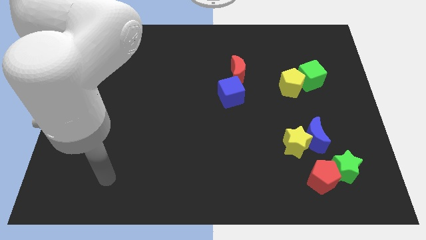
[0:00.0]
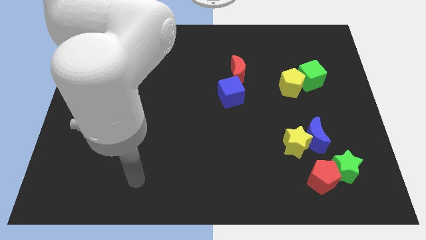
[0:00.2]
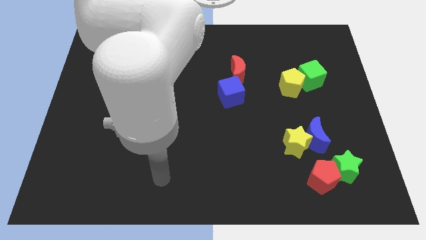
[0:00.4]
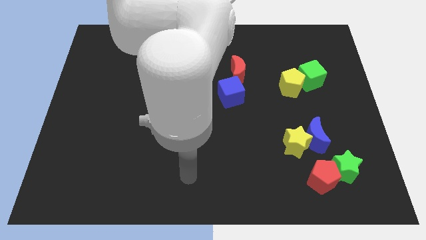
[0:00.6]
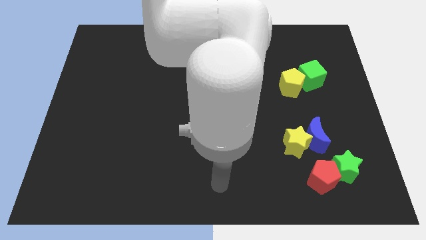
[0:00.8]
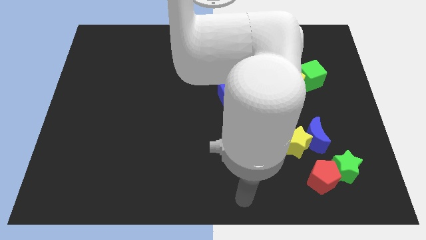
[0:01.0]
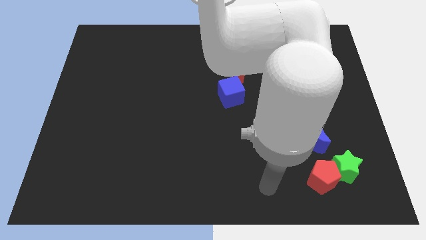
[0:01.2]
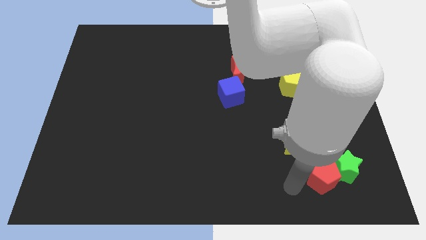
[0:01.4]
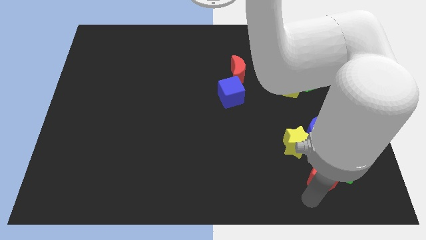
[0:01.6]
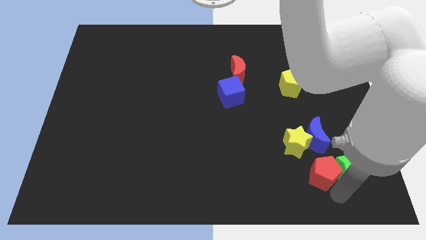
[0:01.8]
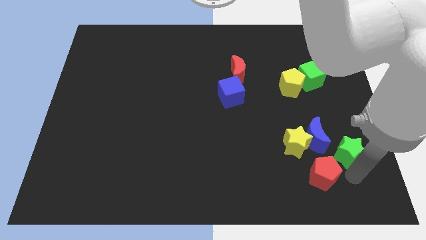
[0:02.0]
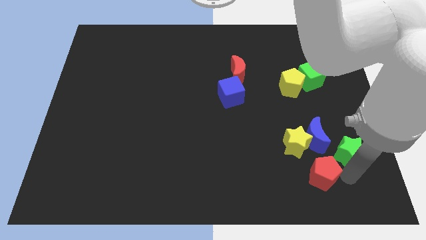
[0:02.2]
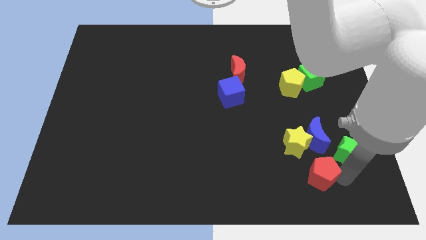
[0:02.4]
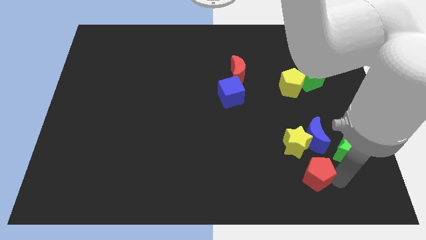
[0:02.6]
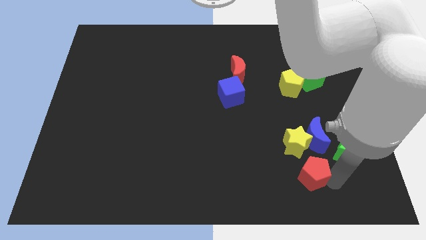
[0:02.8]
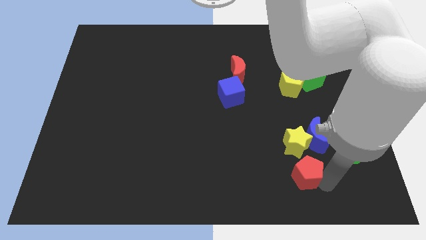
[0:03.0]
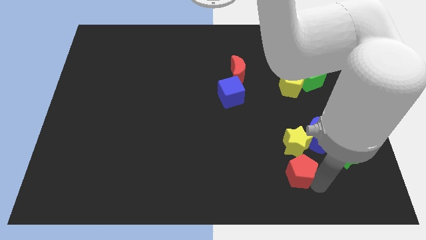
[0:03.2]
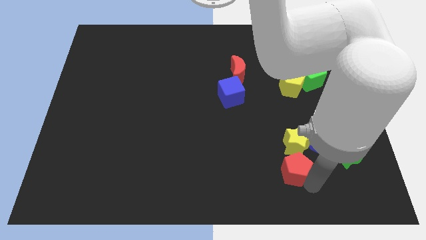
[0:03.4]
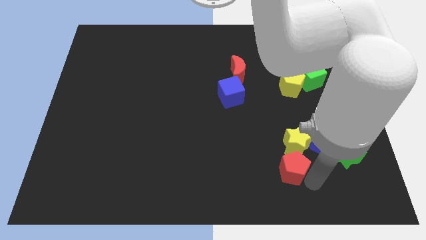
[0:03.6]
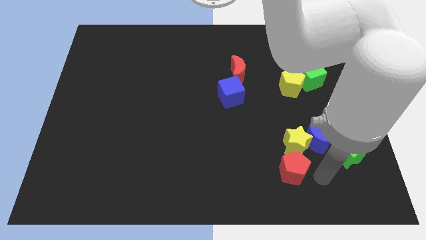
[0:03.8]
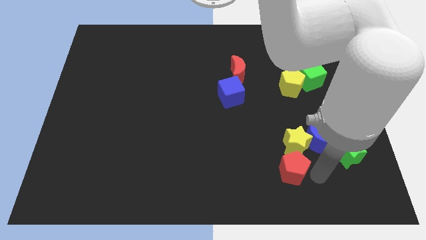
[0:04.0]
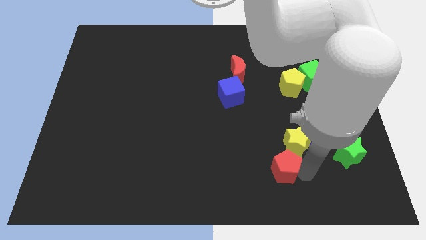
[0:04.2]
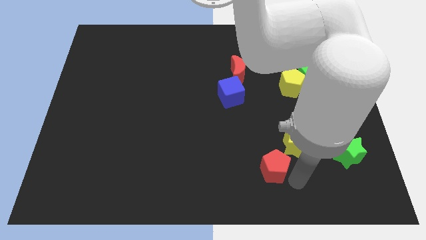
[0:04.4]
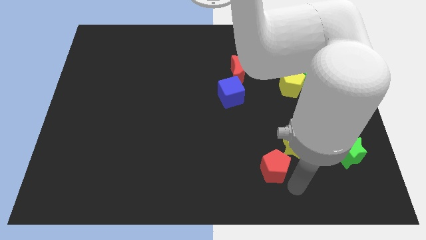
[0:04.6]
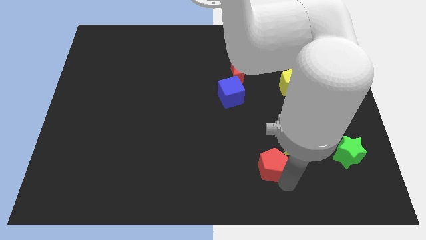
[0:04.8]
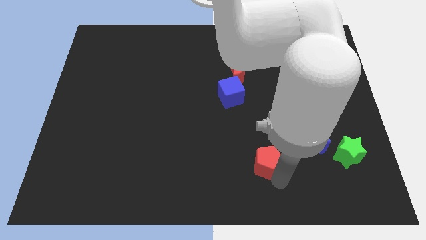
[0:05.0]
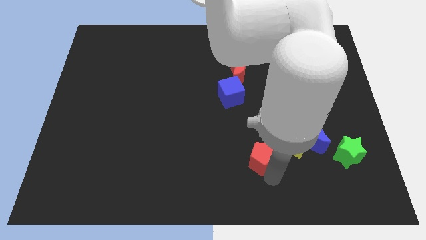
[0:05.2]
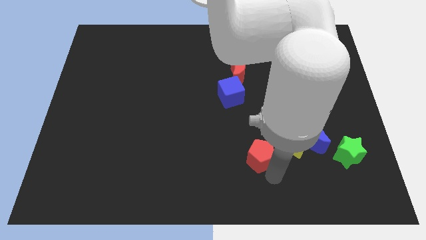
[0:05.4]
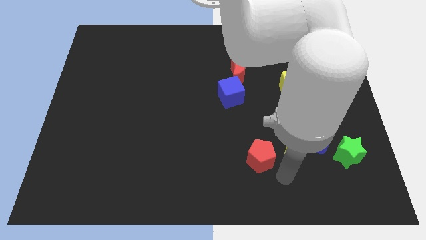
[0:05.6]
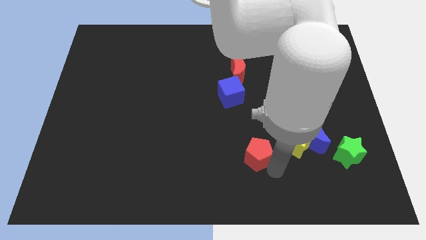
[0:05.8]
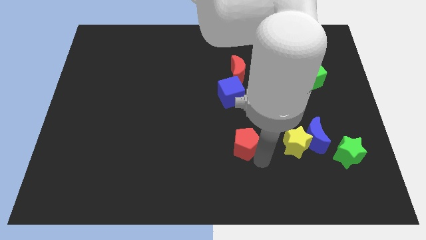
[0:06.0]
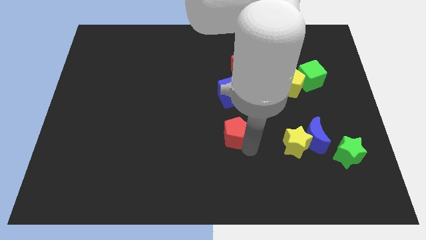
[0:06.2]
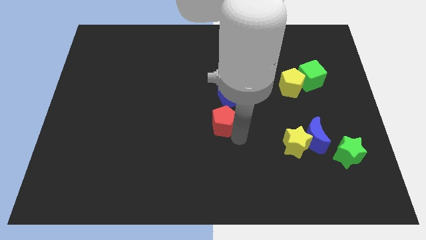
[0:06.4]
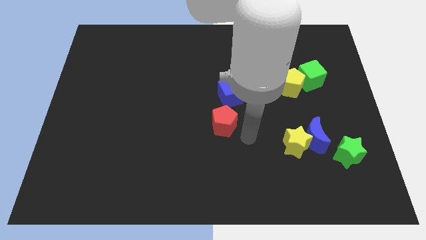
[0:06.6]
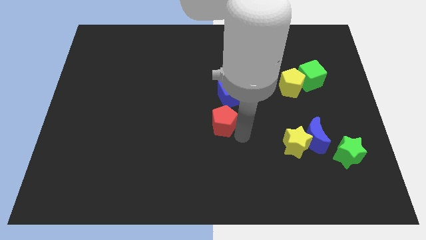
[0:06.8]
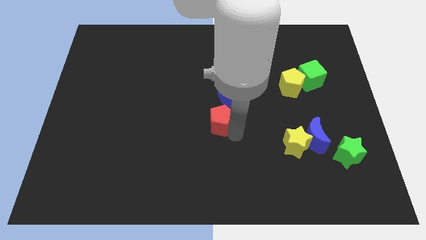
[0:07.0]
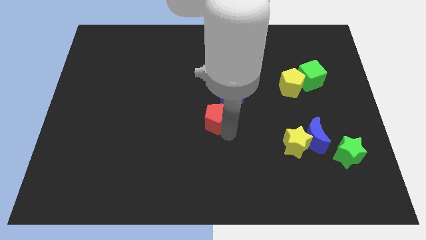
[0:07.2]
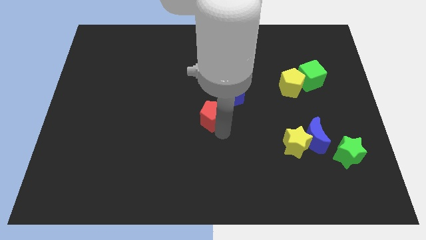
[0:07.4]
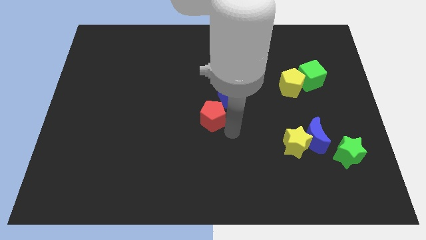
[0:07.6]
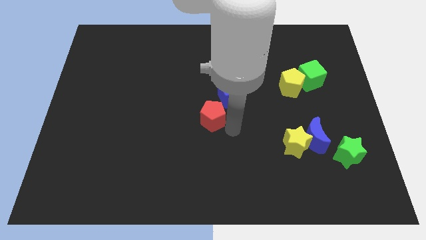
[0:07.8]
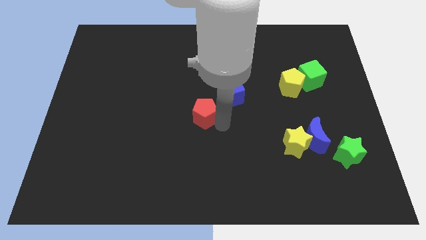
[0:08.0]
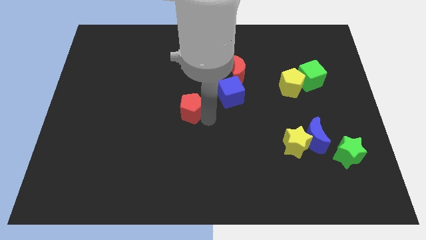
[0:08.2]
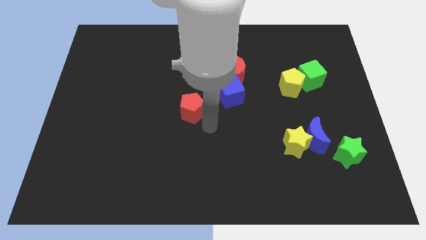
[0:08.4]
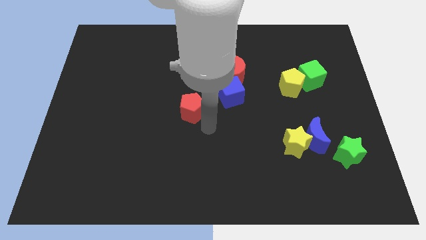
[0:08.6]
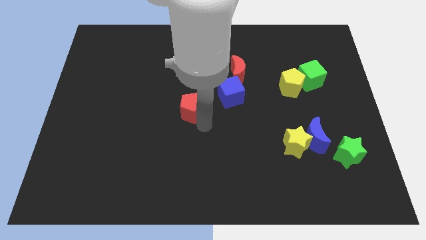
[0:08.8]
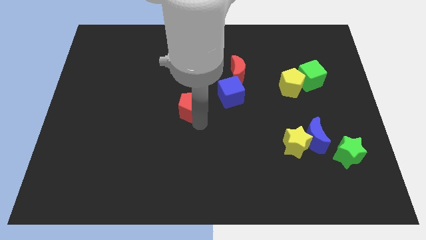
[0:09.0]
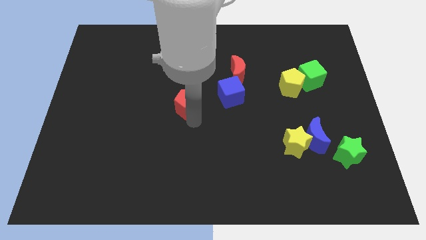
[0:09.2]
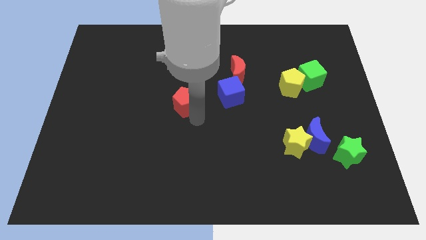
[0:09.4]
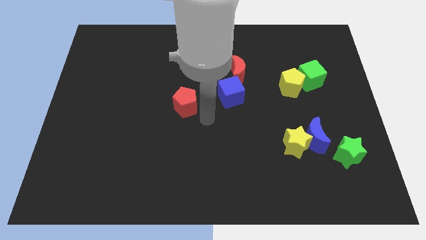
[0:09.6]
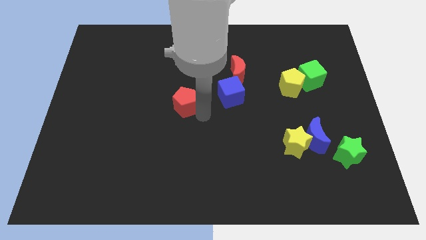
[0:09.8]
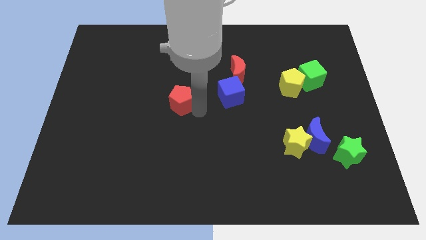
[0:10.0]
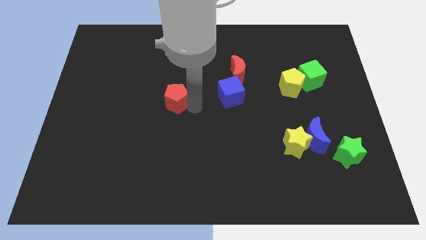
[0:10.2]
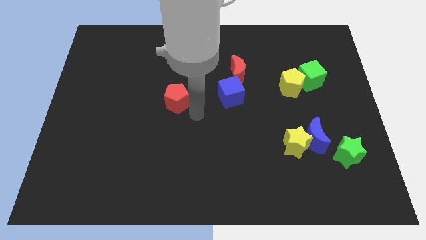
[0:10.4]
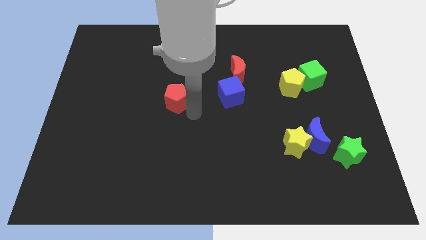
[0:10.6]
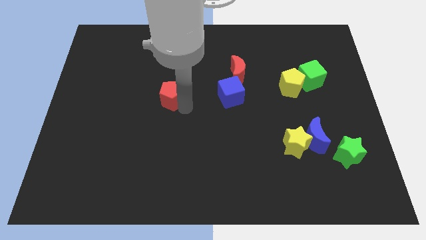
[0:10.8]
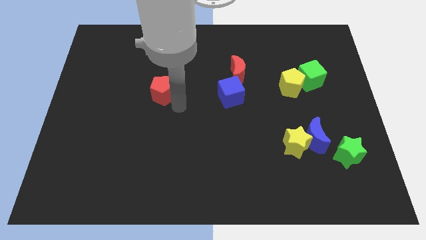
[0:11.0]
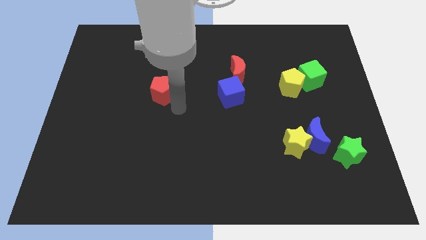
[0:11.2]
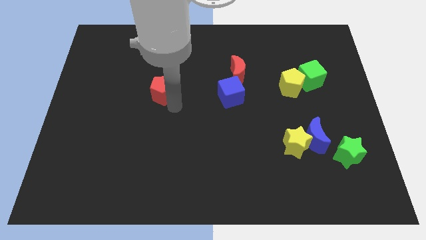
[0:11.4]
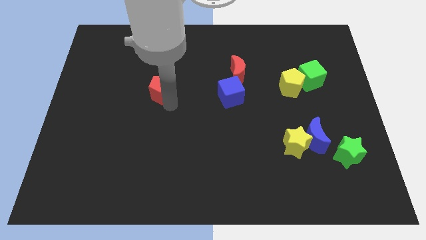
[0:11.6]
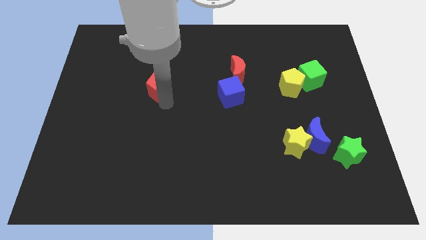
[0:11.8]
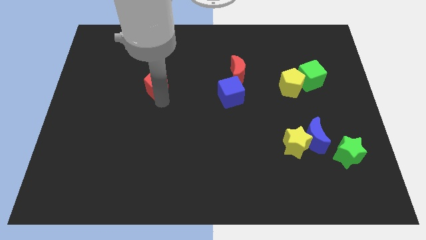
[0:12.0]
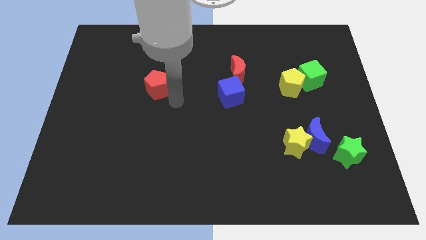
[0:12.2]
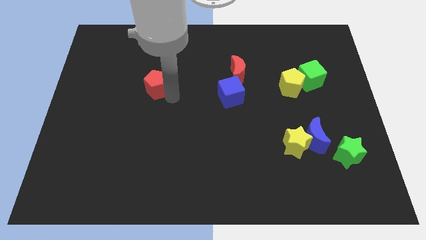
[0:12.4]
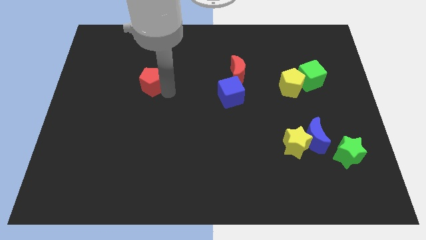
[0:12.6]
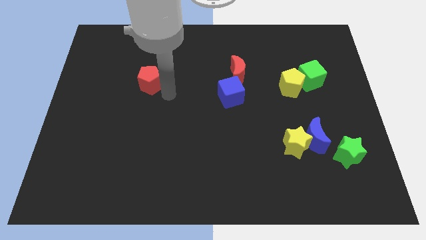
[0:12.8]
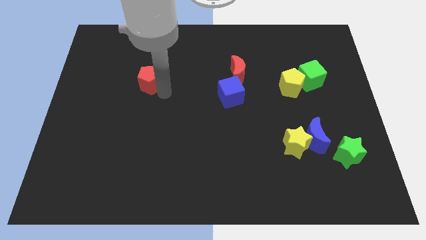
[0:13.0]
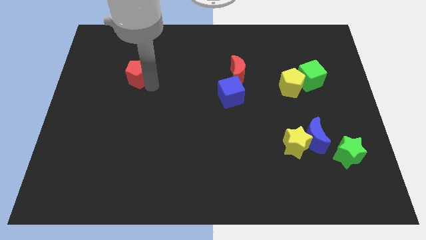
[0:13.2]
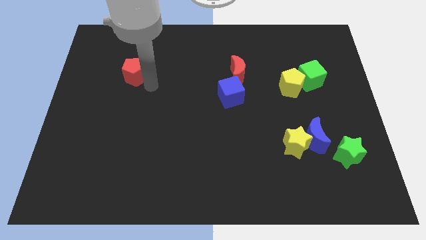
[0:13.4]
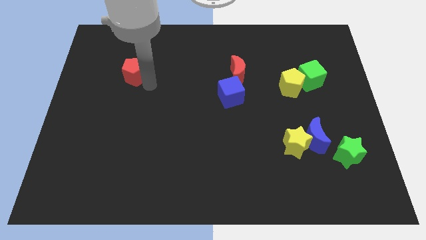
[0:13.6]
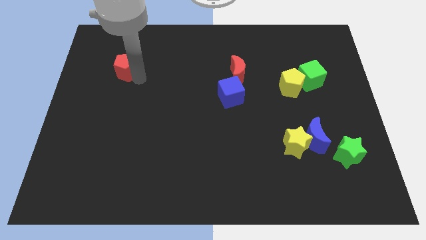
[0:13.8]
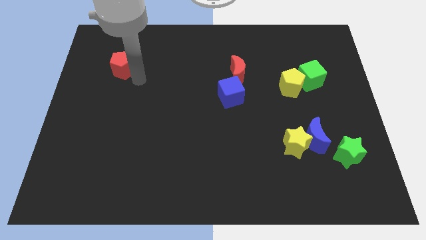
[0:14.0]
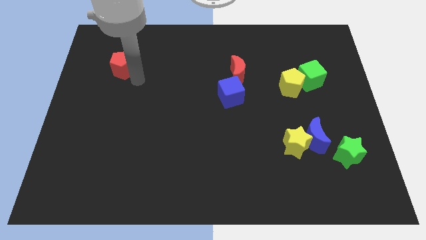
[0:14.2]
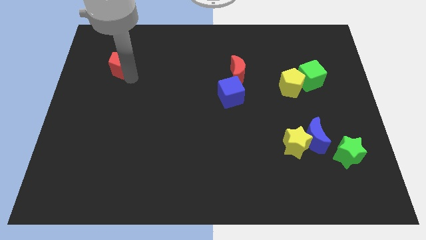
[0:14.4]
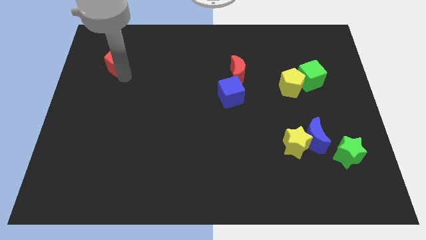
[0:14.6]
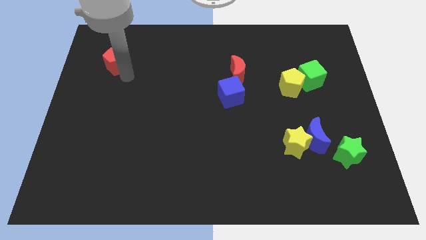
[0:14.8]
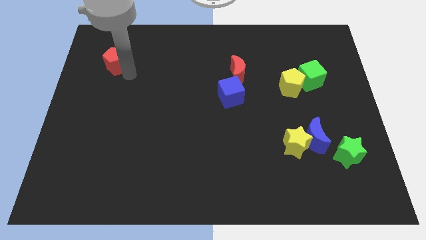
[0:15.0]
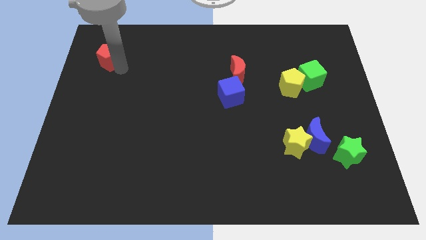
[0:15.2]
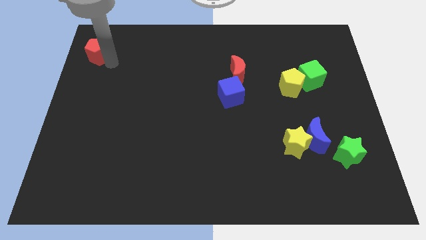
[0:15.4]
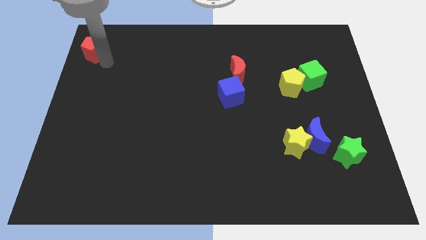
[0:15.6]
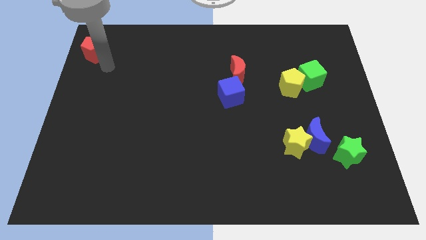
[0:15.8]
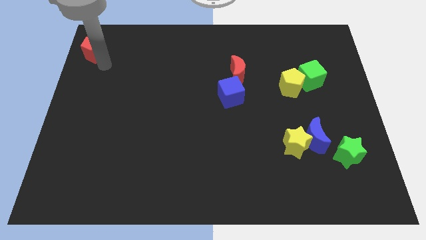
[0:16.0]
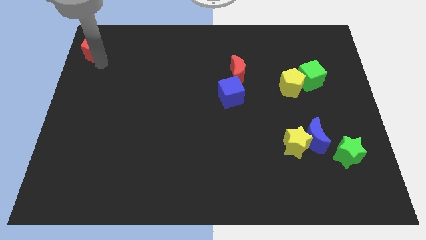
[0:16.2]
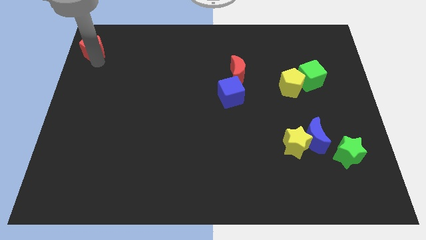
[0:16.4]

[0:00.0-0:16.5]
move the red pentagon to the top left of the board

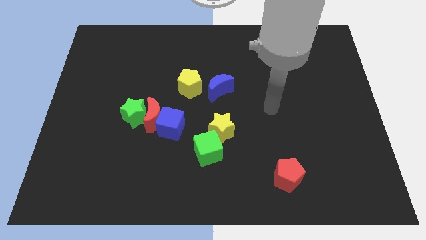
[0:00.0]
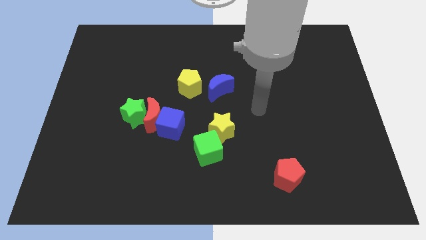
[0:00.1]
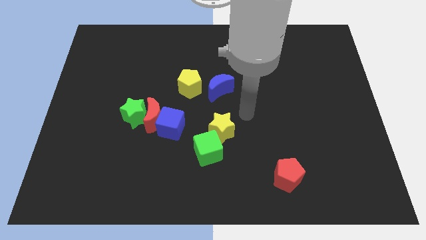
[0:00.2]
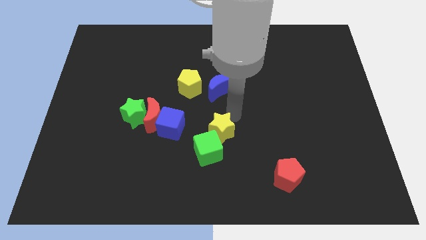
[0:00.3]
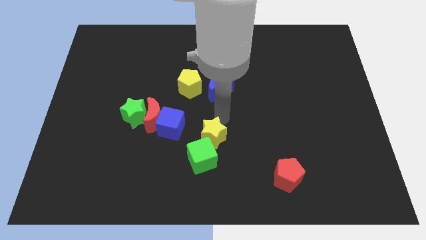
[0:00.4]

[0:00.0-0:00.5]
push the green cube to the bottom
